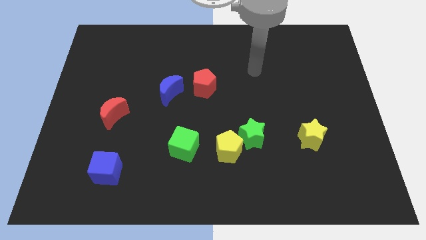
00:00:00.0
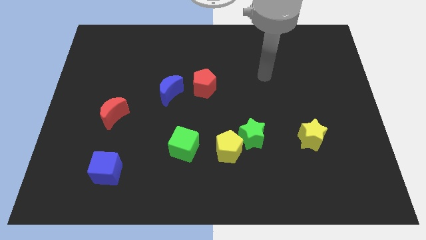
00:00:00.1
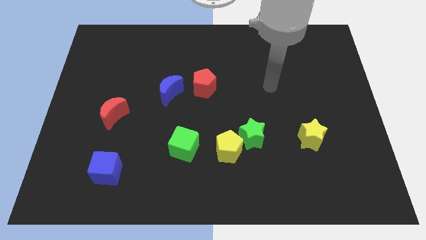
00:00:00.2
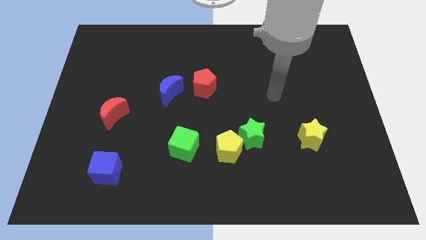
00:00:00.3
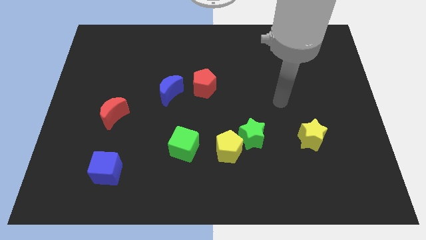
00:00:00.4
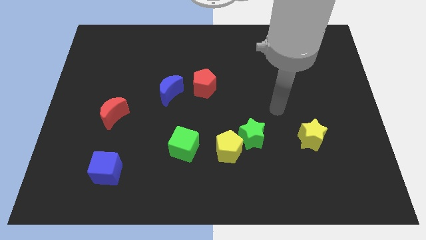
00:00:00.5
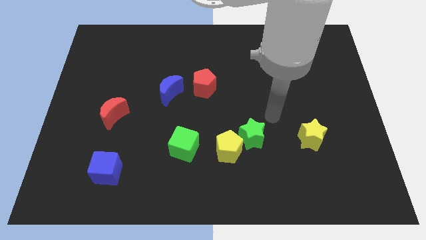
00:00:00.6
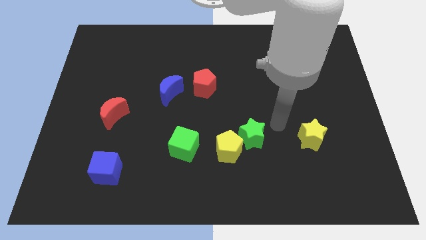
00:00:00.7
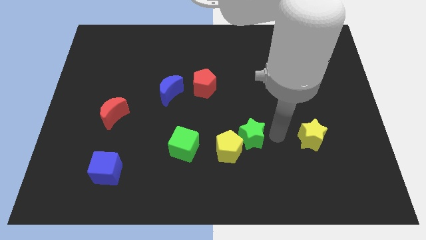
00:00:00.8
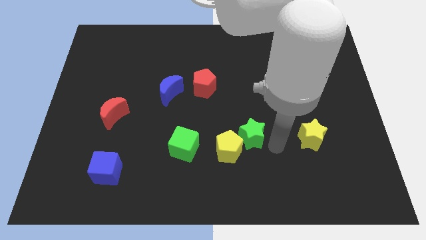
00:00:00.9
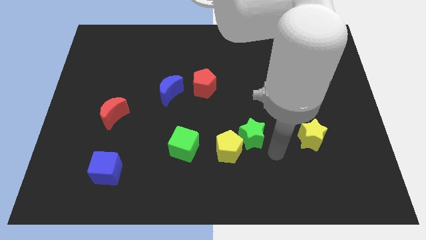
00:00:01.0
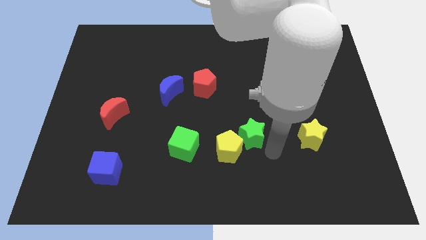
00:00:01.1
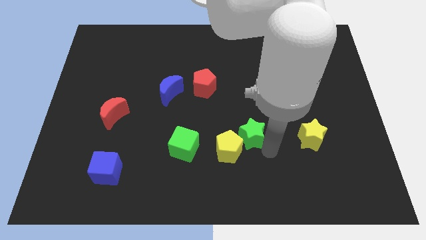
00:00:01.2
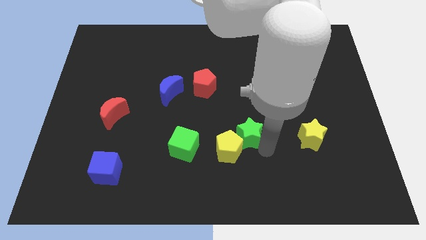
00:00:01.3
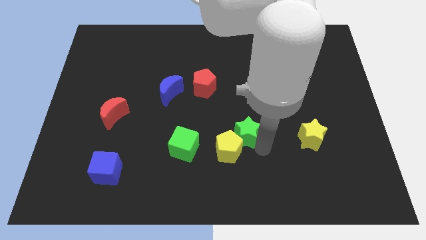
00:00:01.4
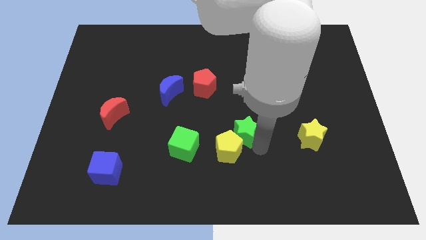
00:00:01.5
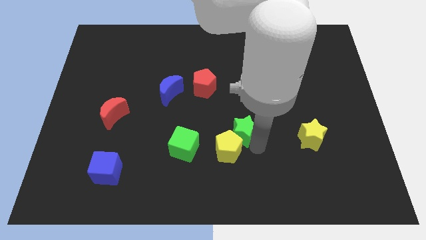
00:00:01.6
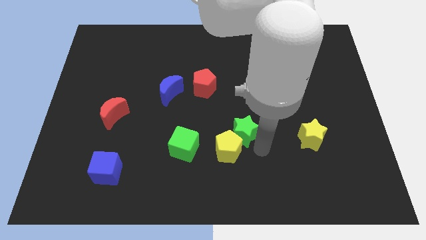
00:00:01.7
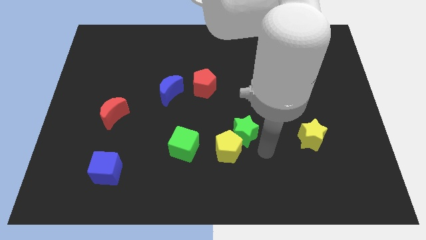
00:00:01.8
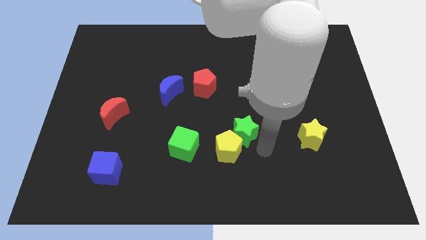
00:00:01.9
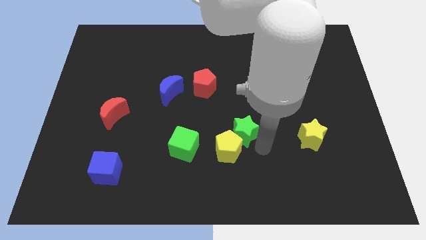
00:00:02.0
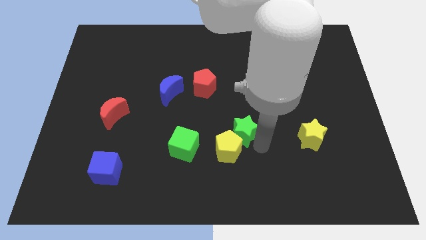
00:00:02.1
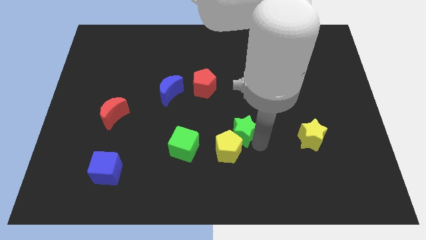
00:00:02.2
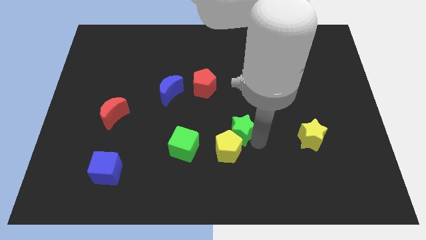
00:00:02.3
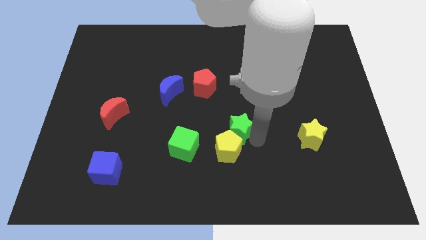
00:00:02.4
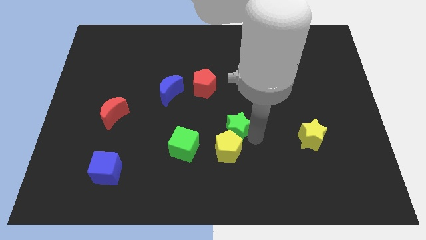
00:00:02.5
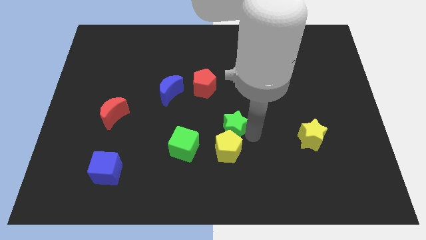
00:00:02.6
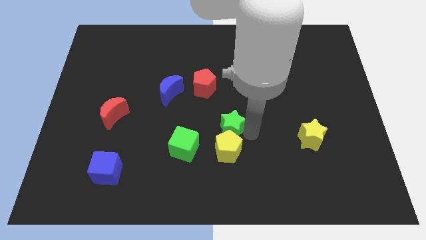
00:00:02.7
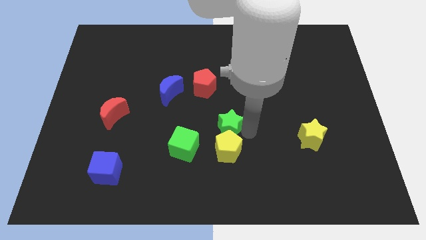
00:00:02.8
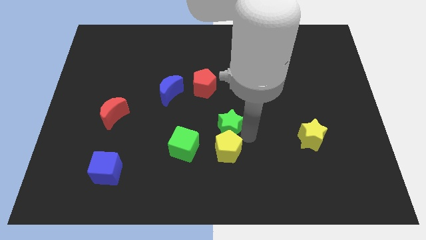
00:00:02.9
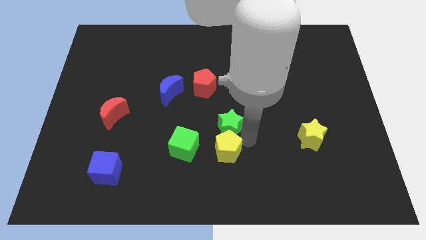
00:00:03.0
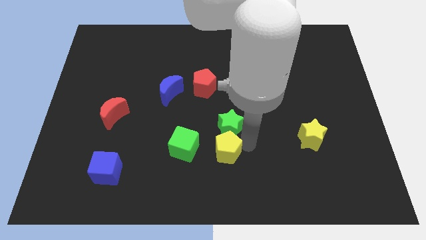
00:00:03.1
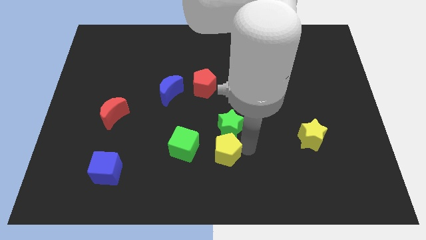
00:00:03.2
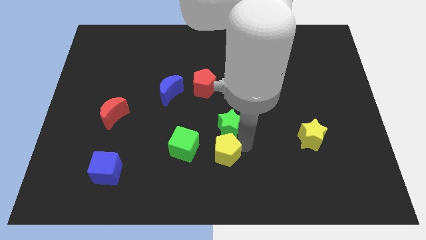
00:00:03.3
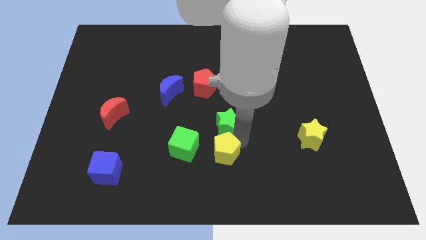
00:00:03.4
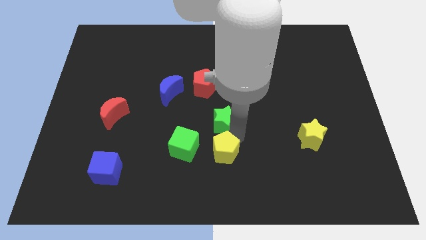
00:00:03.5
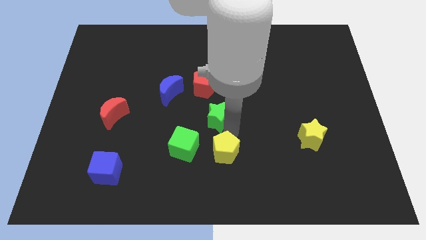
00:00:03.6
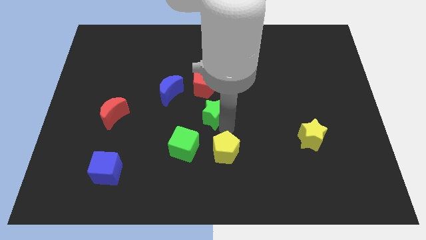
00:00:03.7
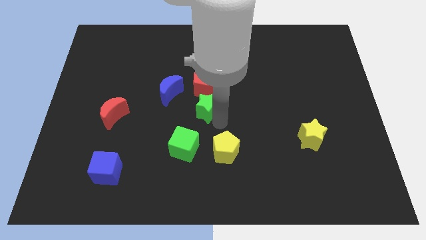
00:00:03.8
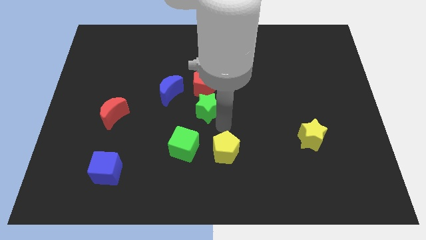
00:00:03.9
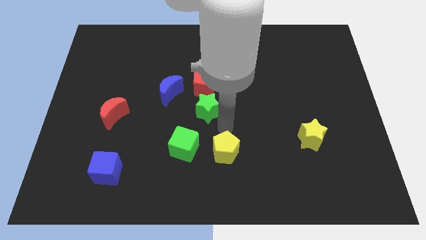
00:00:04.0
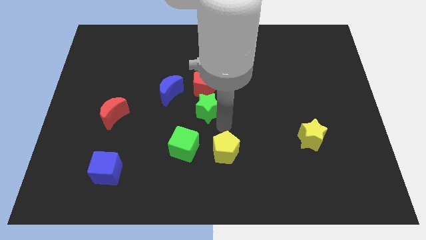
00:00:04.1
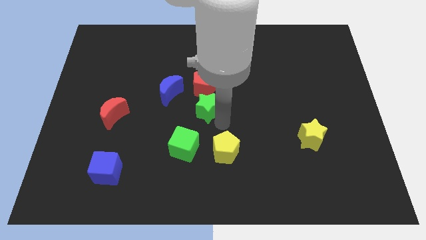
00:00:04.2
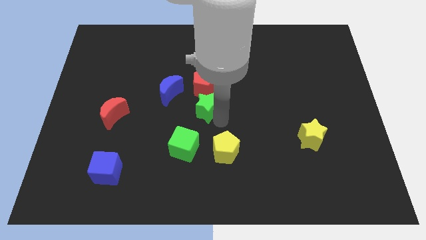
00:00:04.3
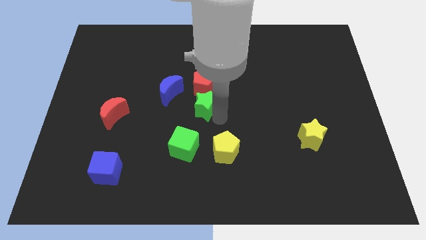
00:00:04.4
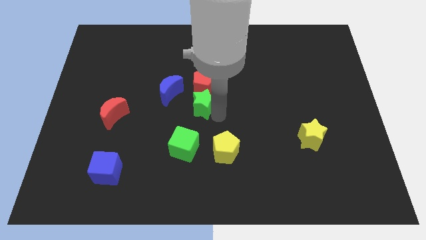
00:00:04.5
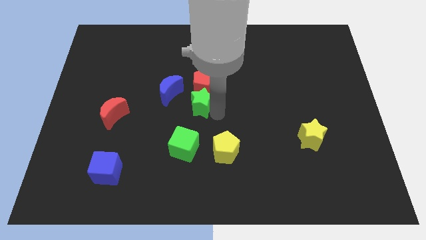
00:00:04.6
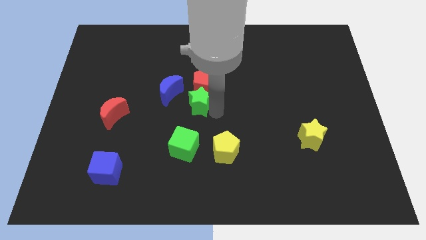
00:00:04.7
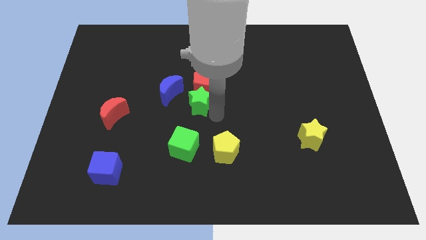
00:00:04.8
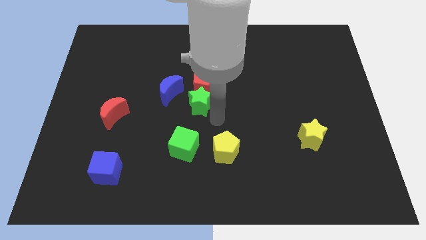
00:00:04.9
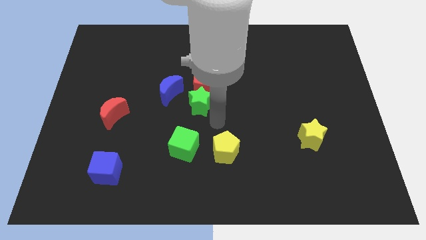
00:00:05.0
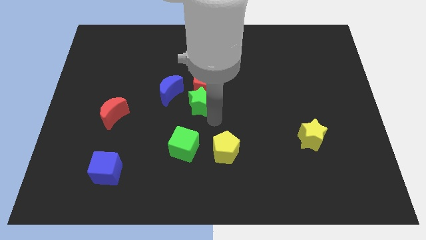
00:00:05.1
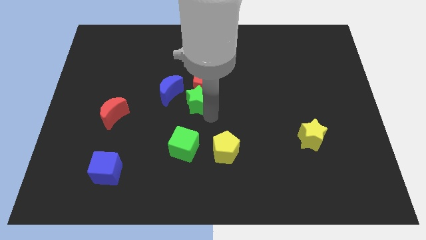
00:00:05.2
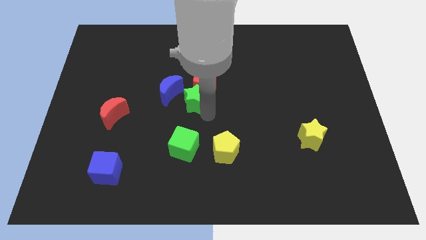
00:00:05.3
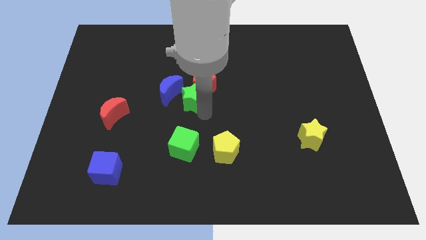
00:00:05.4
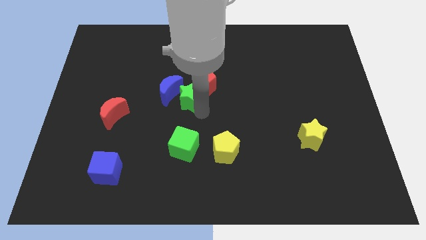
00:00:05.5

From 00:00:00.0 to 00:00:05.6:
slide the green star to the left of the red pentagon

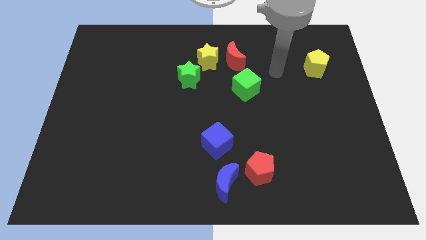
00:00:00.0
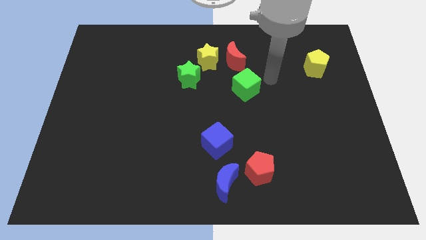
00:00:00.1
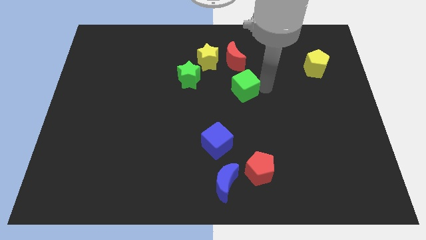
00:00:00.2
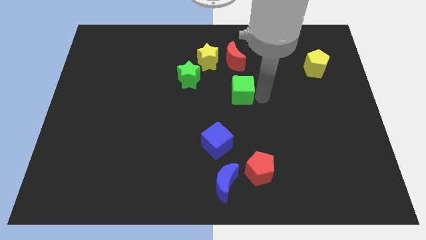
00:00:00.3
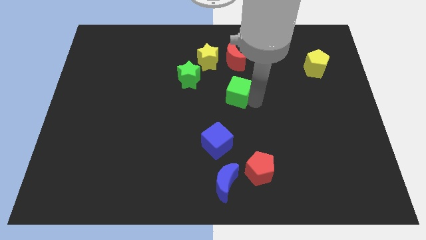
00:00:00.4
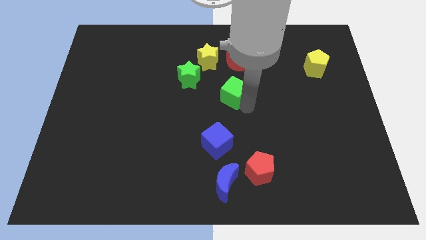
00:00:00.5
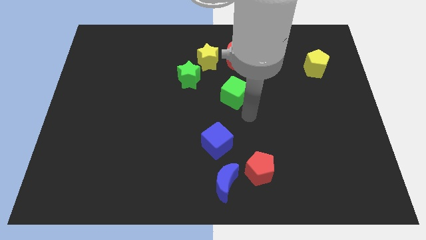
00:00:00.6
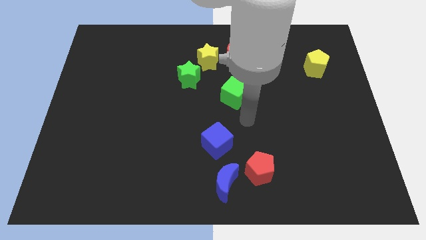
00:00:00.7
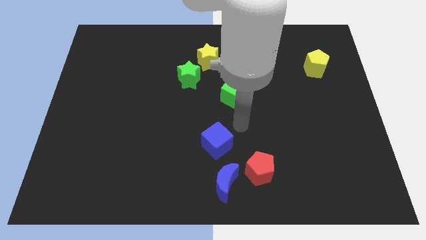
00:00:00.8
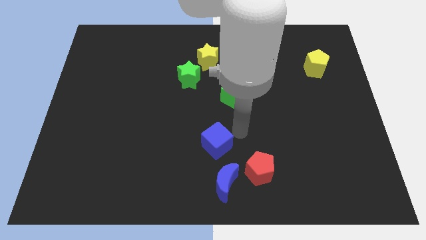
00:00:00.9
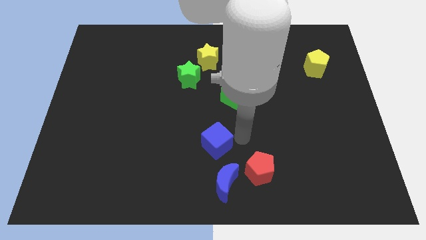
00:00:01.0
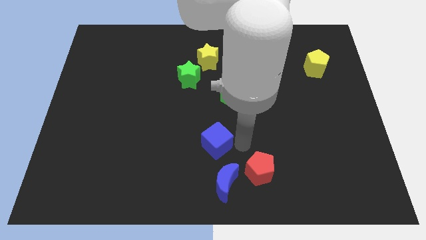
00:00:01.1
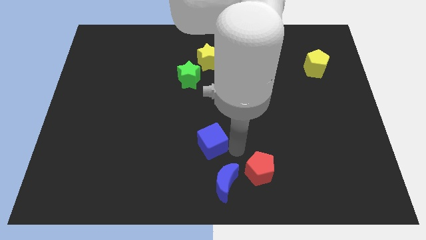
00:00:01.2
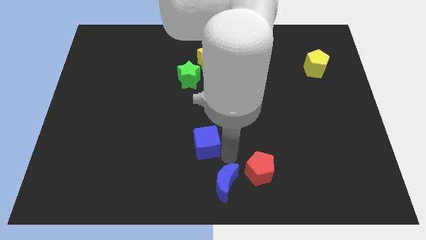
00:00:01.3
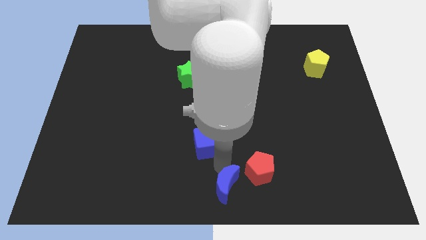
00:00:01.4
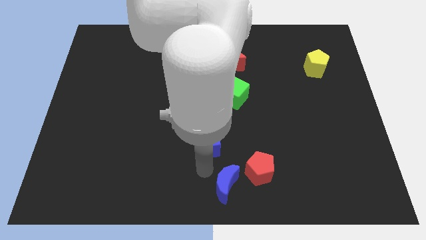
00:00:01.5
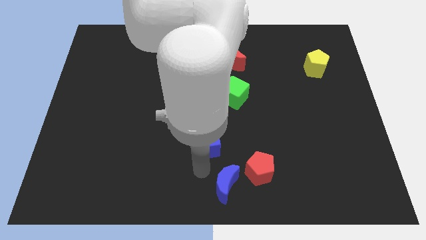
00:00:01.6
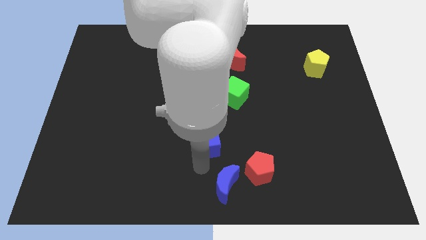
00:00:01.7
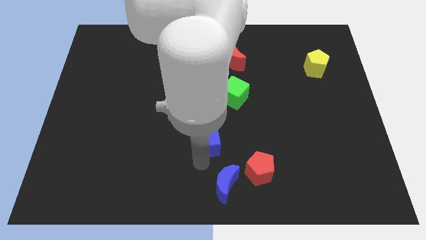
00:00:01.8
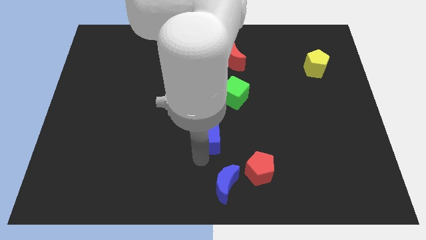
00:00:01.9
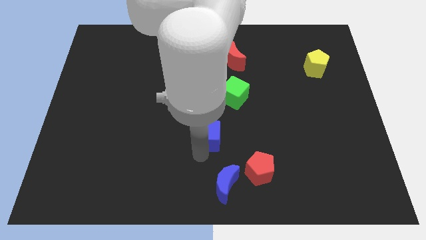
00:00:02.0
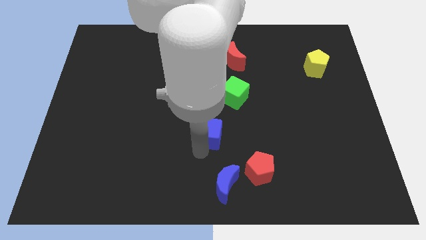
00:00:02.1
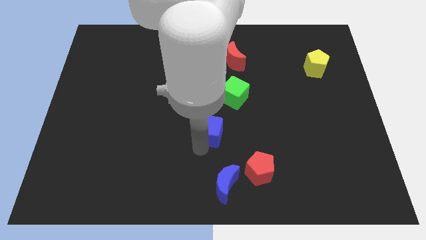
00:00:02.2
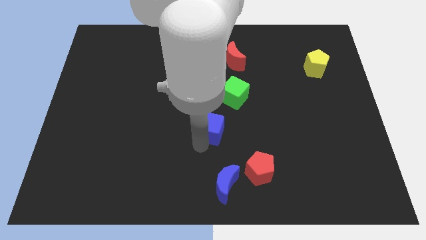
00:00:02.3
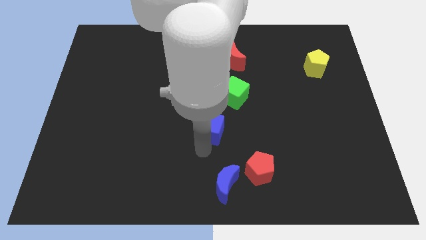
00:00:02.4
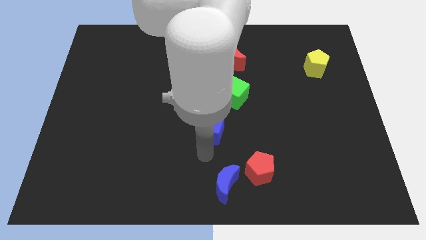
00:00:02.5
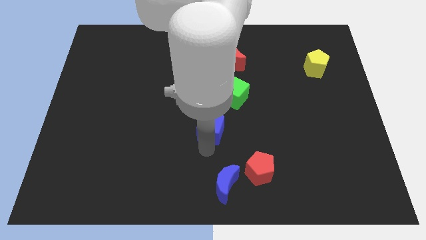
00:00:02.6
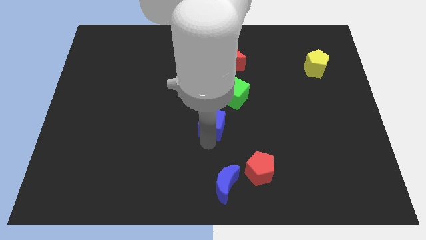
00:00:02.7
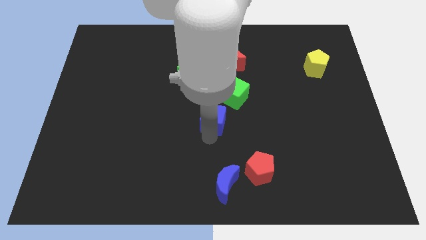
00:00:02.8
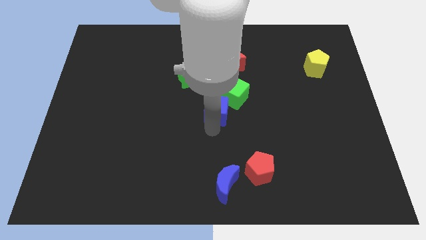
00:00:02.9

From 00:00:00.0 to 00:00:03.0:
move the blue cube to the bottom right side of the green star

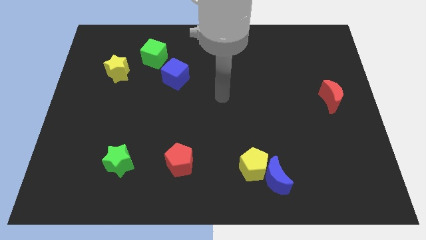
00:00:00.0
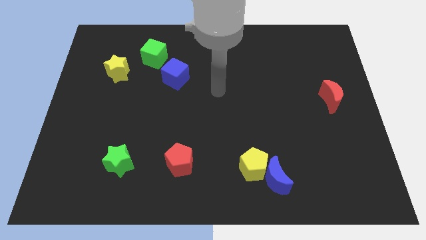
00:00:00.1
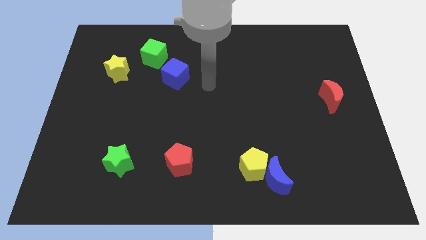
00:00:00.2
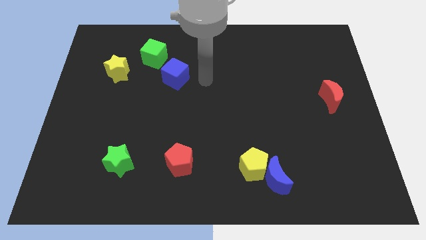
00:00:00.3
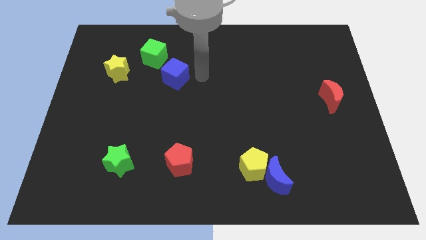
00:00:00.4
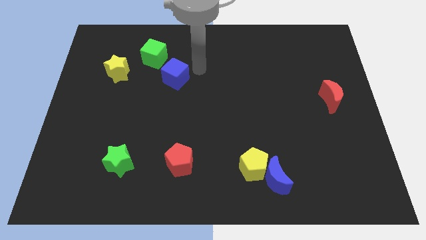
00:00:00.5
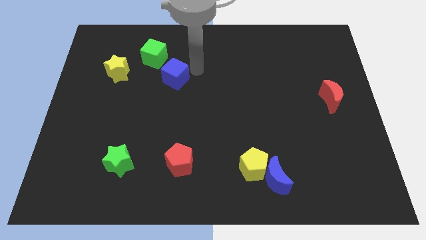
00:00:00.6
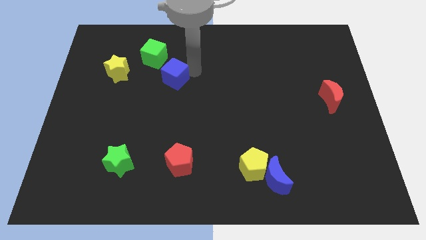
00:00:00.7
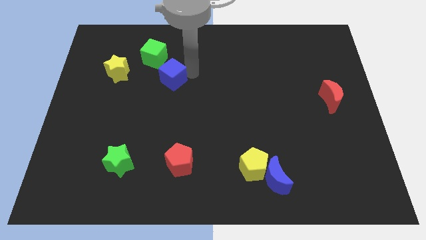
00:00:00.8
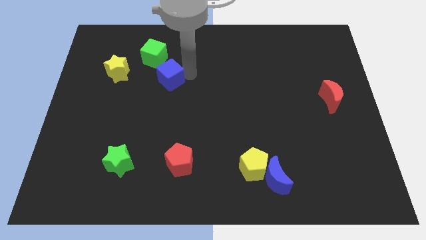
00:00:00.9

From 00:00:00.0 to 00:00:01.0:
push the blue cube to the bottom side of the green cube
